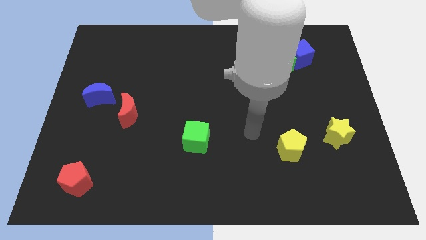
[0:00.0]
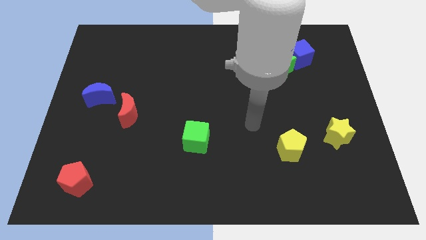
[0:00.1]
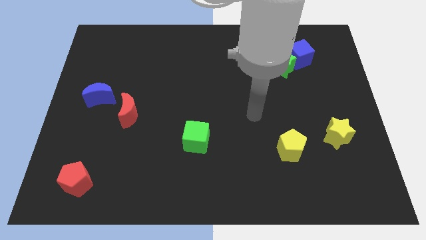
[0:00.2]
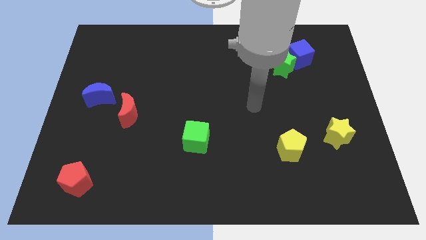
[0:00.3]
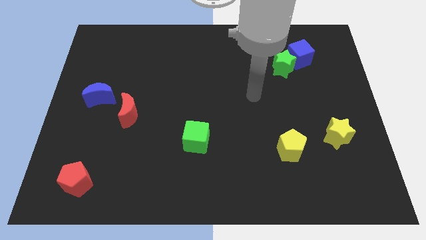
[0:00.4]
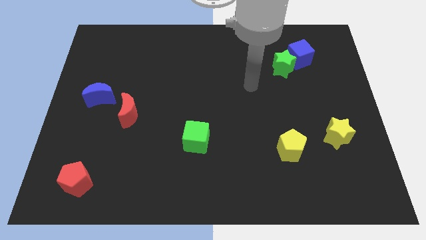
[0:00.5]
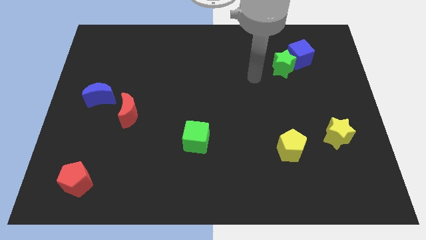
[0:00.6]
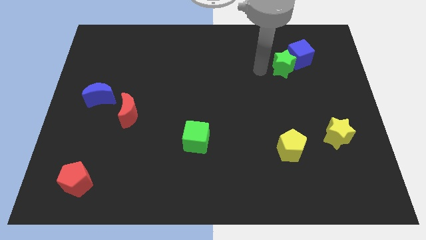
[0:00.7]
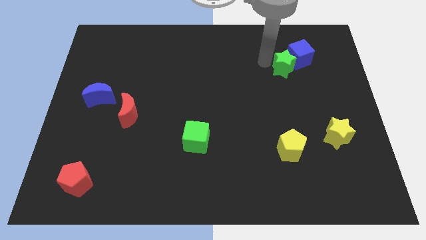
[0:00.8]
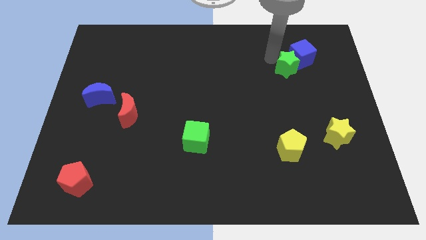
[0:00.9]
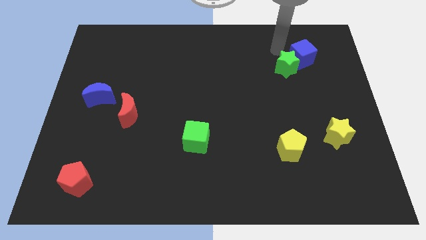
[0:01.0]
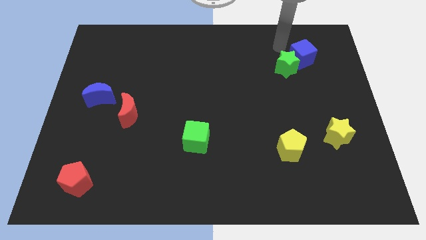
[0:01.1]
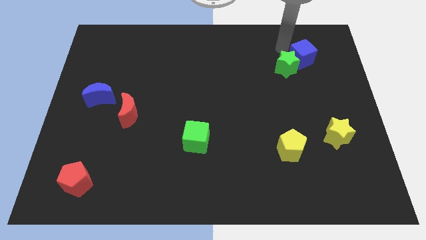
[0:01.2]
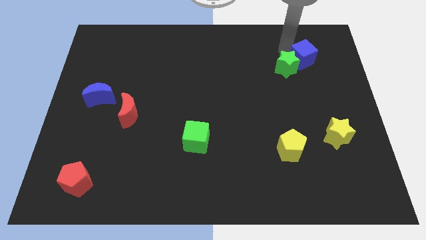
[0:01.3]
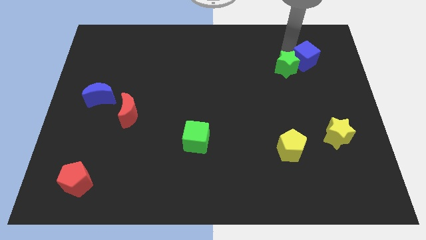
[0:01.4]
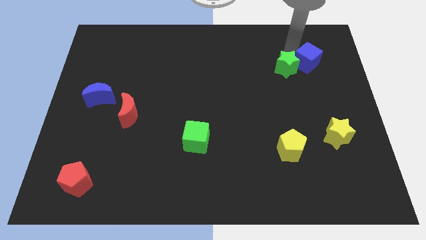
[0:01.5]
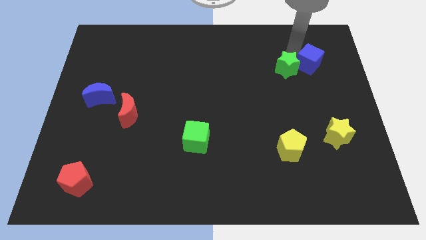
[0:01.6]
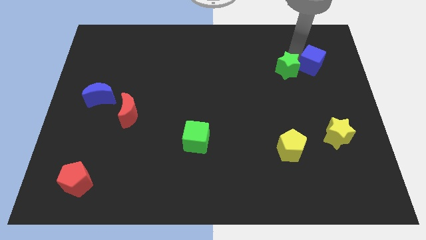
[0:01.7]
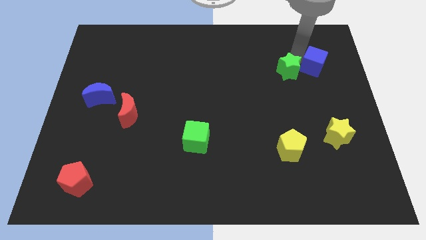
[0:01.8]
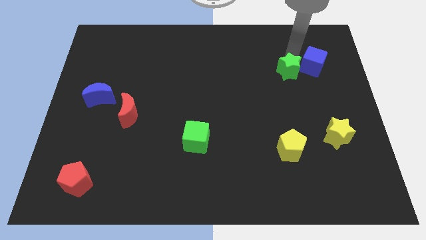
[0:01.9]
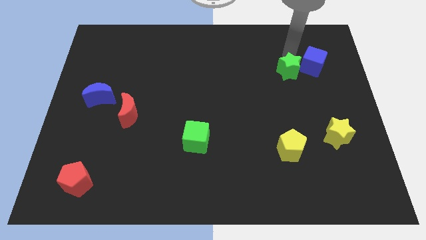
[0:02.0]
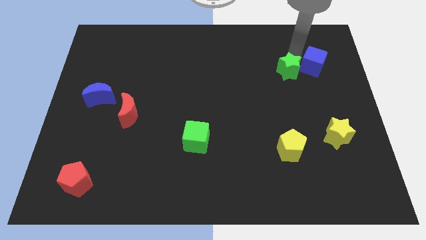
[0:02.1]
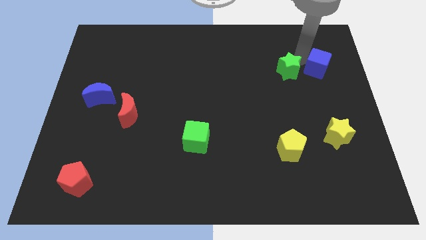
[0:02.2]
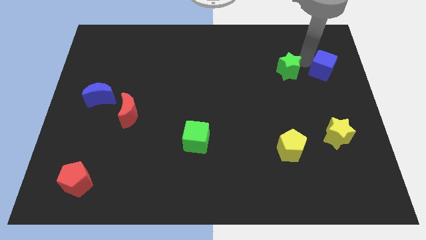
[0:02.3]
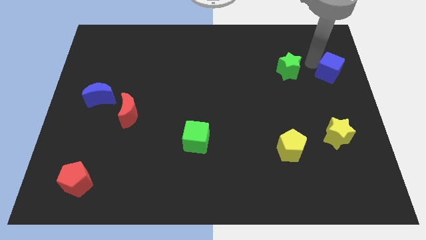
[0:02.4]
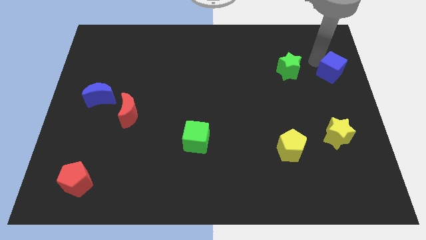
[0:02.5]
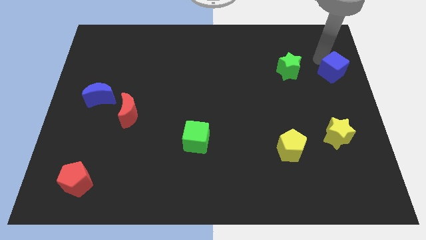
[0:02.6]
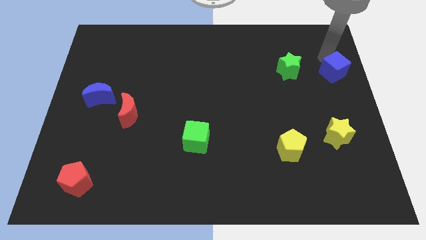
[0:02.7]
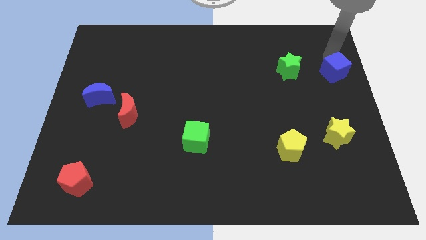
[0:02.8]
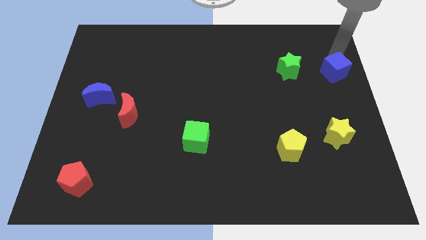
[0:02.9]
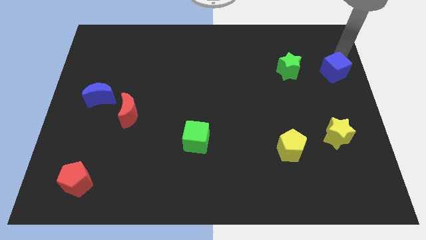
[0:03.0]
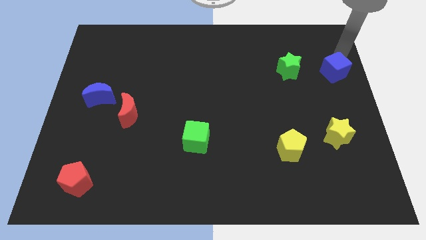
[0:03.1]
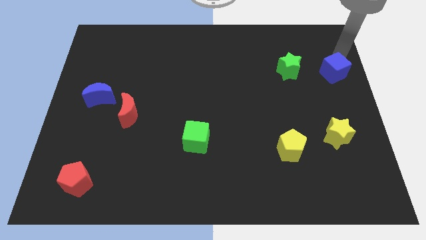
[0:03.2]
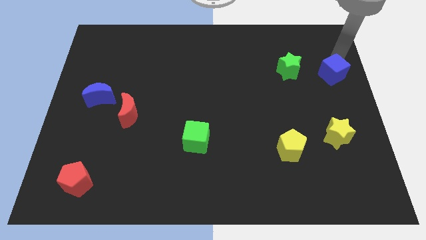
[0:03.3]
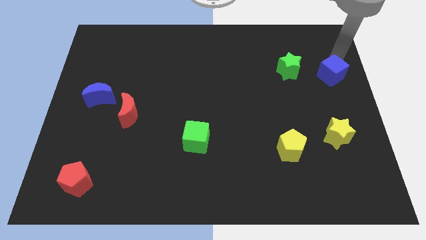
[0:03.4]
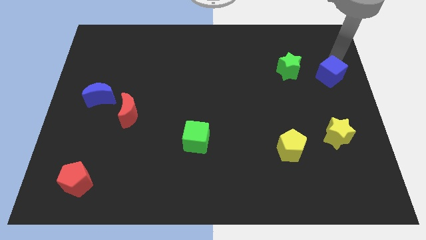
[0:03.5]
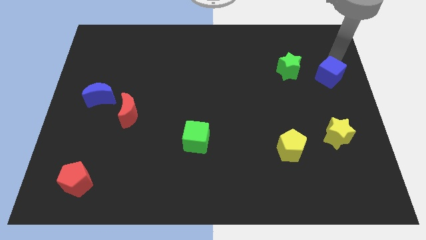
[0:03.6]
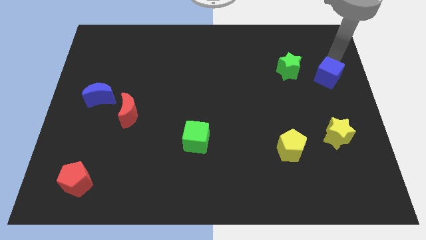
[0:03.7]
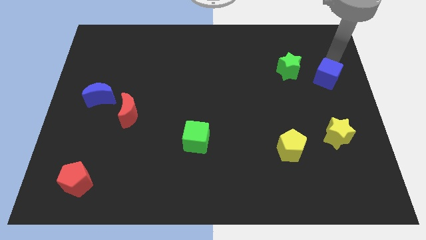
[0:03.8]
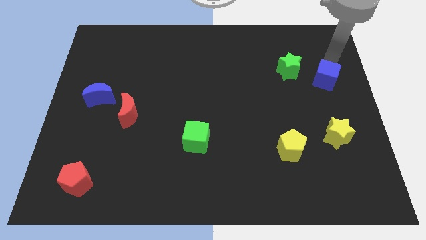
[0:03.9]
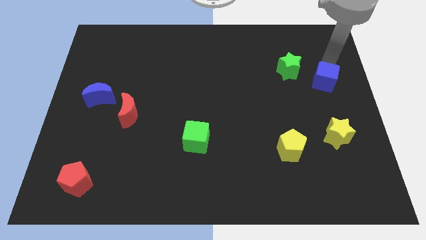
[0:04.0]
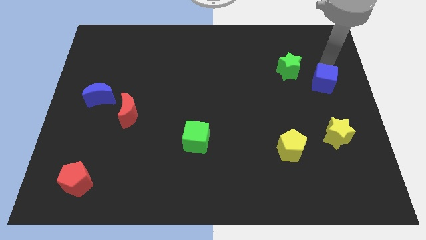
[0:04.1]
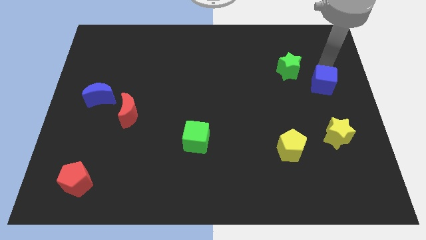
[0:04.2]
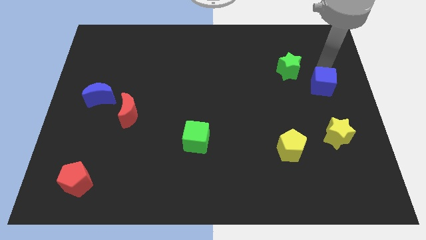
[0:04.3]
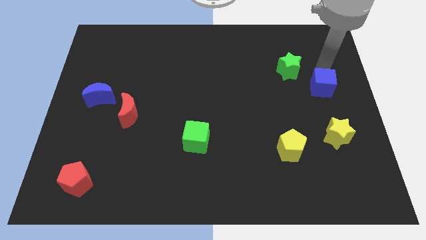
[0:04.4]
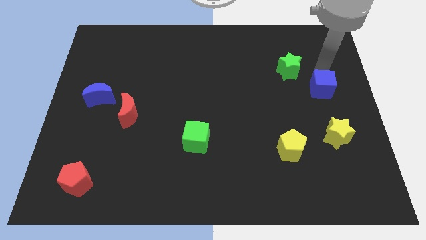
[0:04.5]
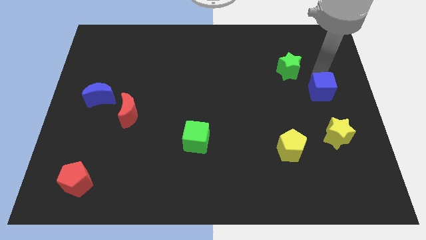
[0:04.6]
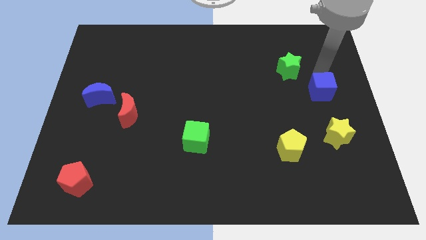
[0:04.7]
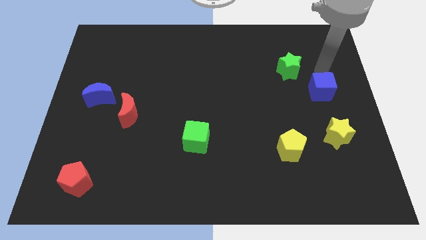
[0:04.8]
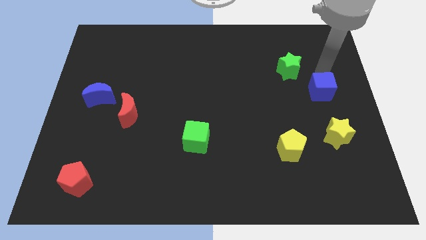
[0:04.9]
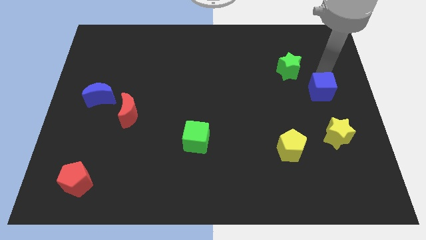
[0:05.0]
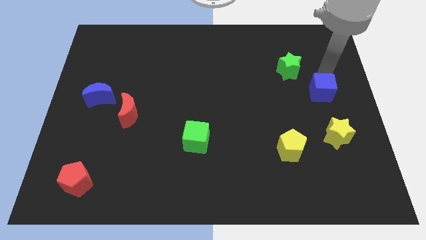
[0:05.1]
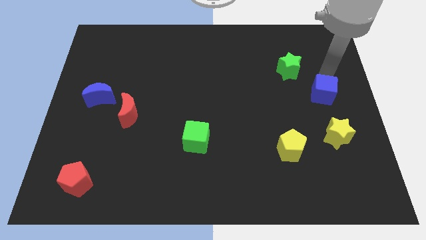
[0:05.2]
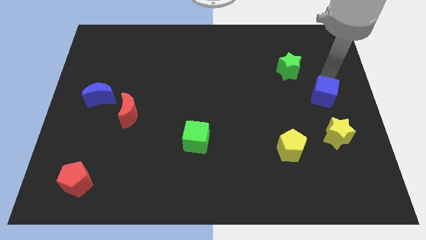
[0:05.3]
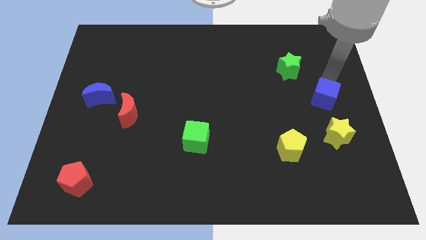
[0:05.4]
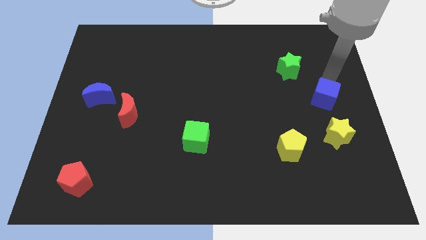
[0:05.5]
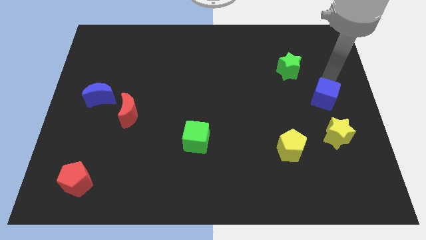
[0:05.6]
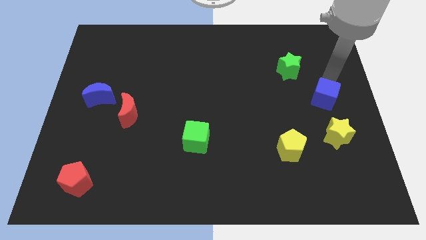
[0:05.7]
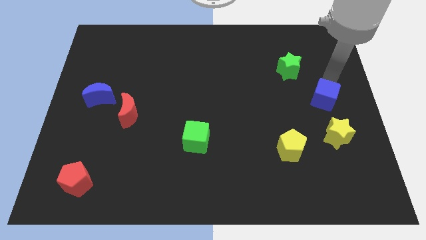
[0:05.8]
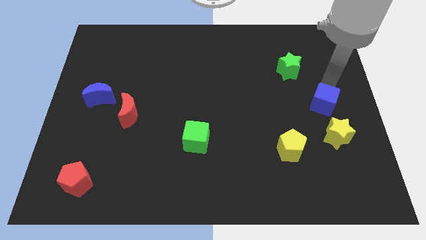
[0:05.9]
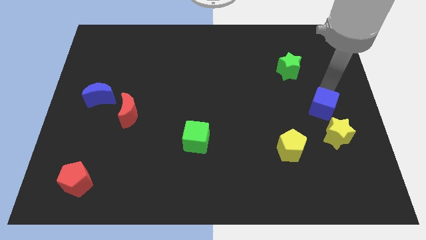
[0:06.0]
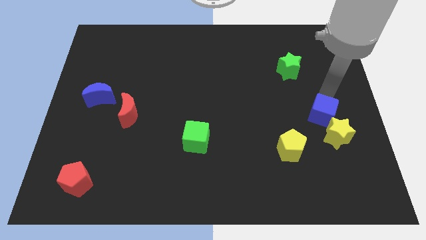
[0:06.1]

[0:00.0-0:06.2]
move the blue cube to the top right of the yellow pentagon

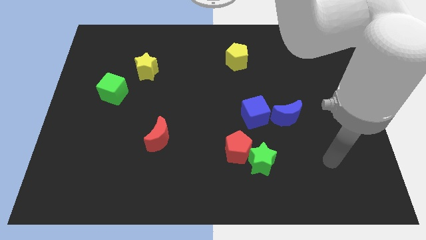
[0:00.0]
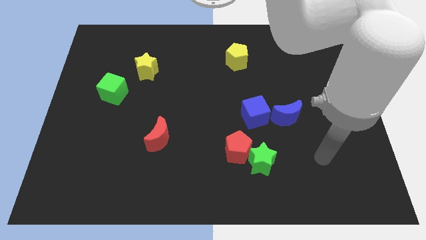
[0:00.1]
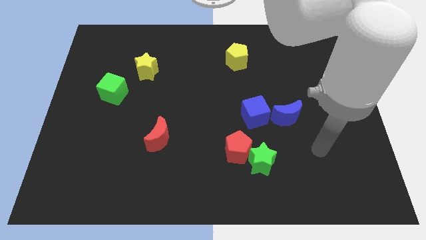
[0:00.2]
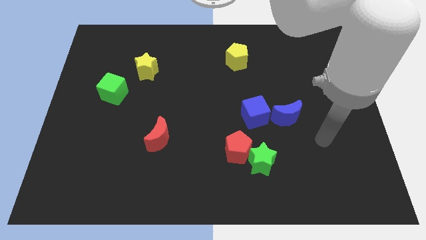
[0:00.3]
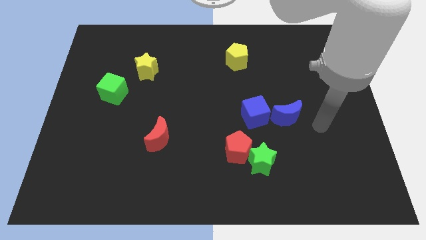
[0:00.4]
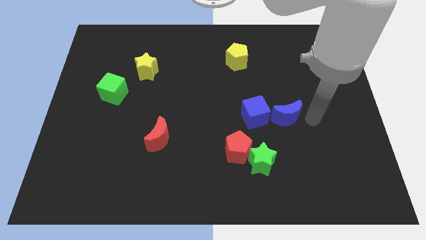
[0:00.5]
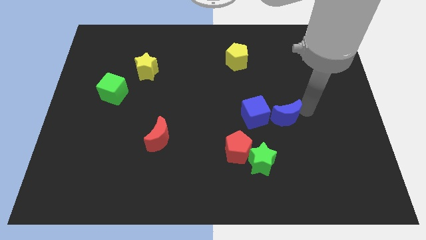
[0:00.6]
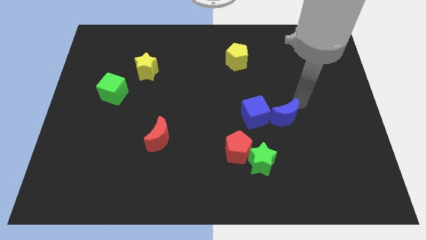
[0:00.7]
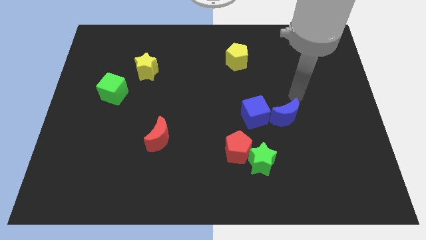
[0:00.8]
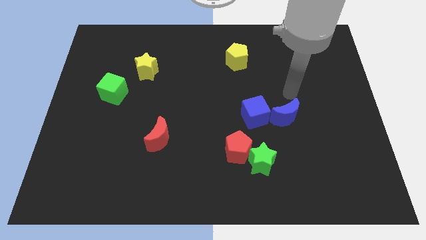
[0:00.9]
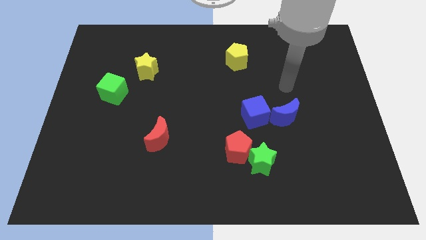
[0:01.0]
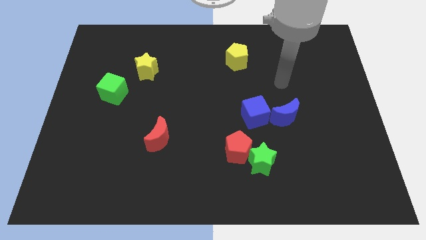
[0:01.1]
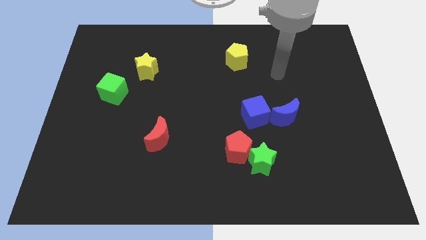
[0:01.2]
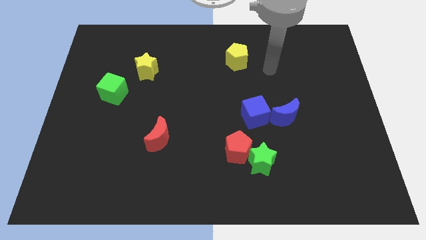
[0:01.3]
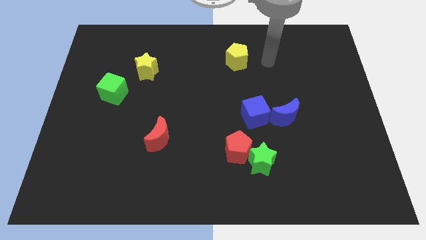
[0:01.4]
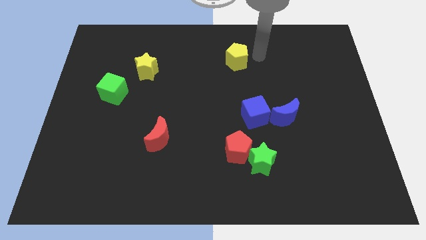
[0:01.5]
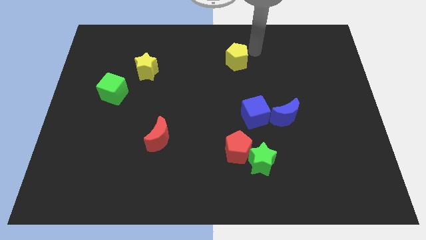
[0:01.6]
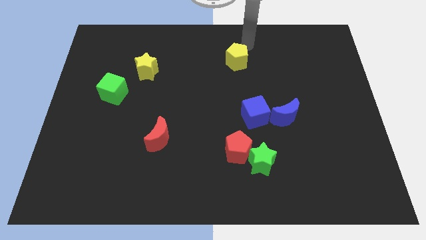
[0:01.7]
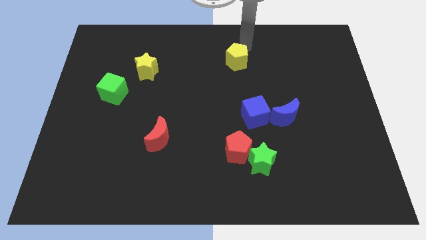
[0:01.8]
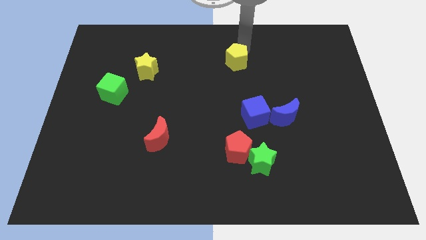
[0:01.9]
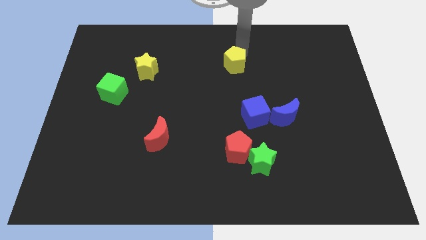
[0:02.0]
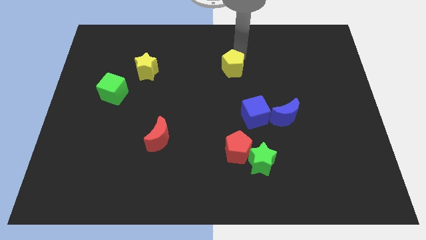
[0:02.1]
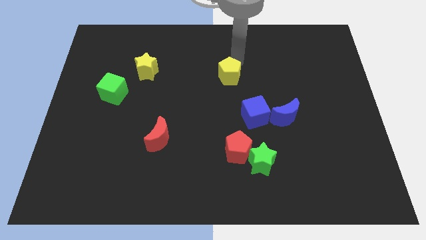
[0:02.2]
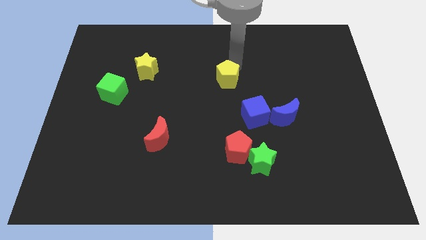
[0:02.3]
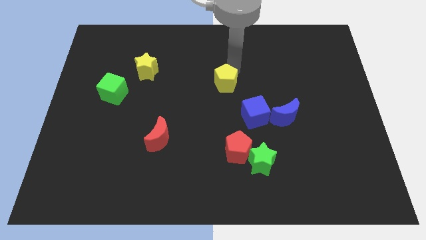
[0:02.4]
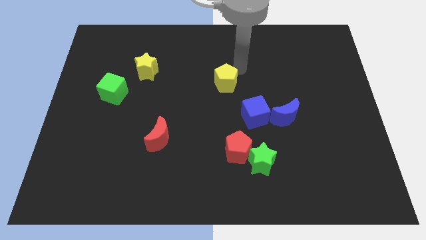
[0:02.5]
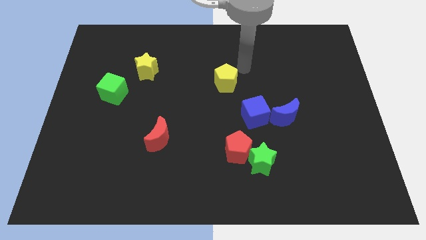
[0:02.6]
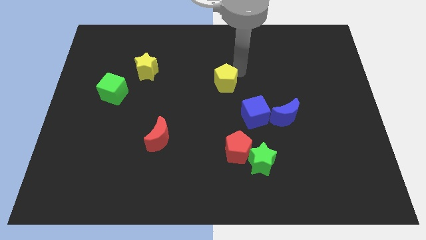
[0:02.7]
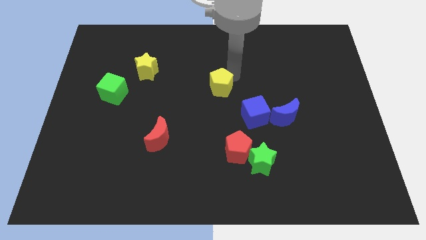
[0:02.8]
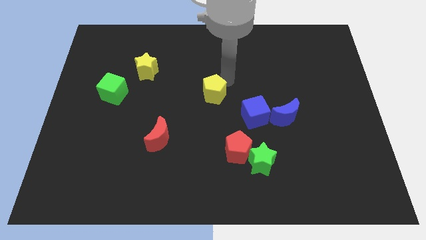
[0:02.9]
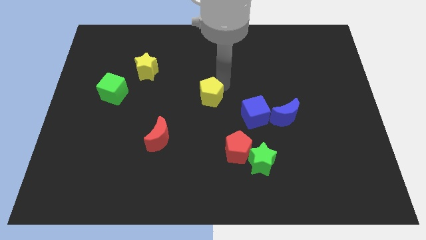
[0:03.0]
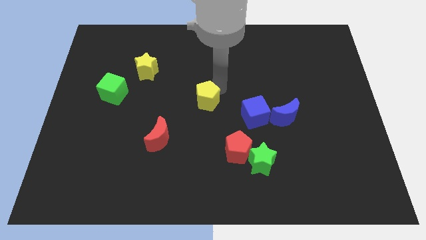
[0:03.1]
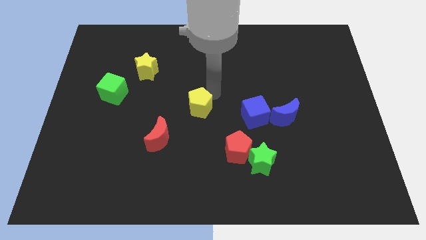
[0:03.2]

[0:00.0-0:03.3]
slide the yellow pentagon to the top right of the red moon
